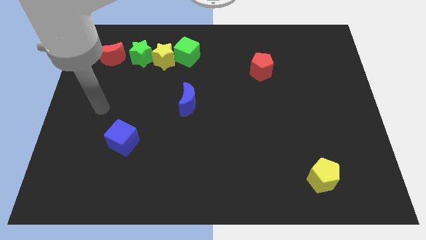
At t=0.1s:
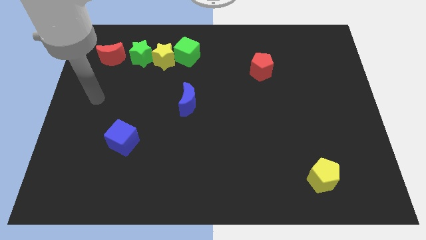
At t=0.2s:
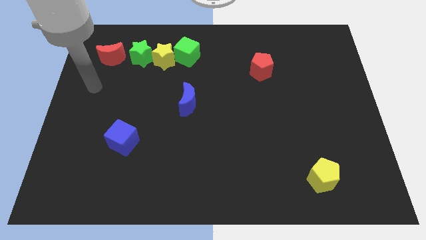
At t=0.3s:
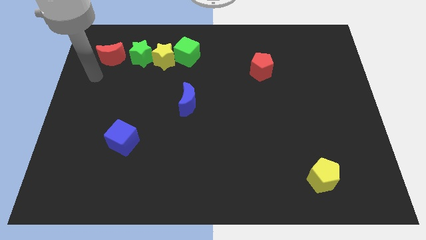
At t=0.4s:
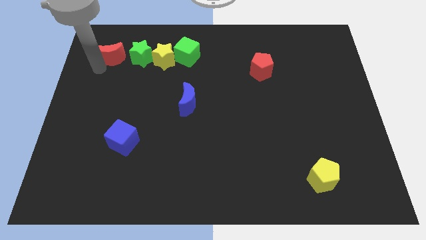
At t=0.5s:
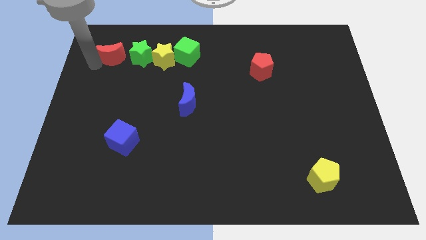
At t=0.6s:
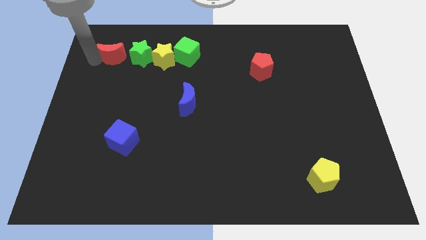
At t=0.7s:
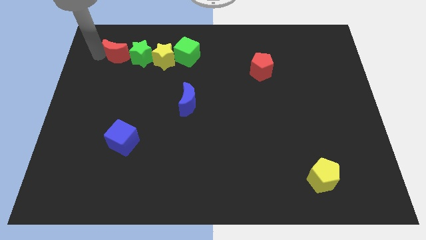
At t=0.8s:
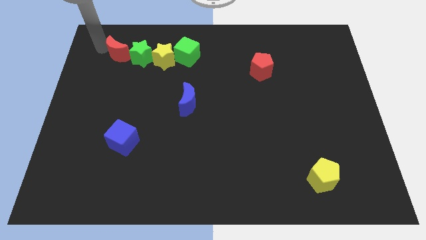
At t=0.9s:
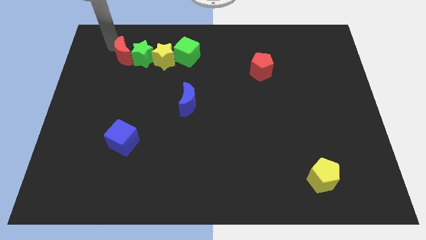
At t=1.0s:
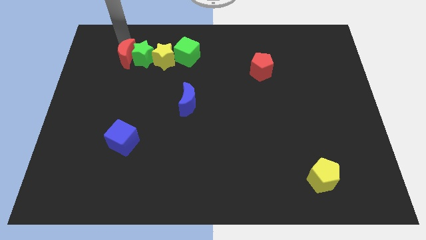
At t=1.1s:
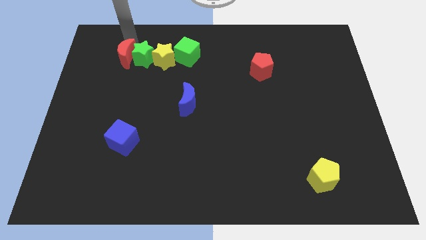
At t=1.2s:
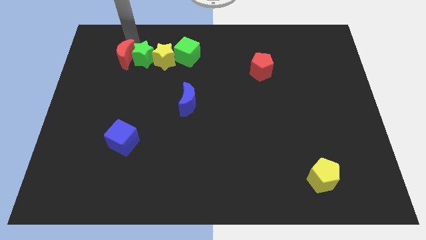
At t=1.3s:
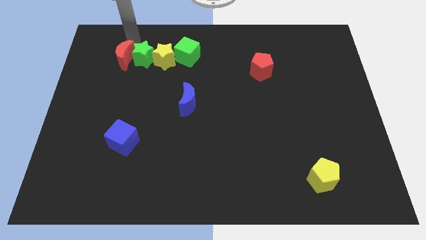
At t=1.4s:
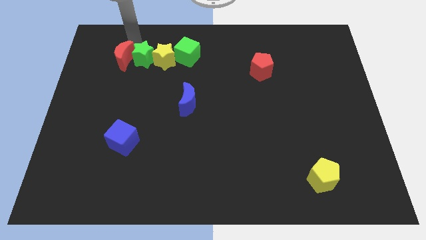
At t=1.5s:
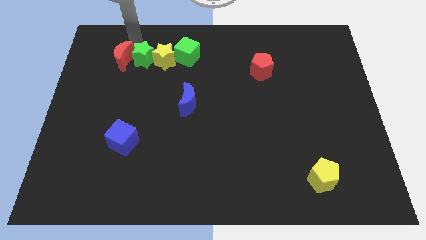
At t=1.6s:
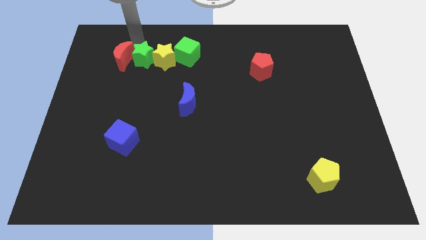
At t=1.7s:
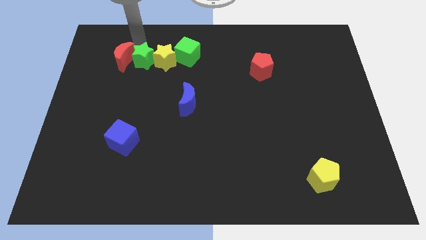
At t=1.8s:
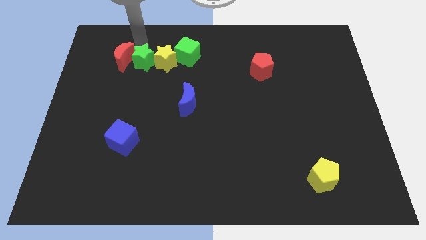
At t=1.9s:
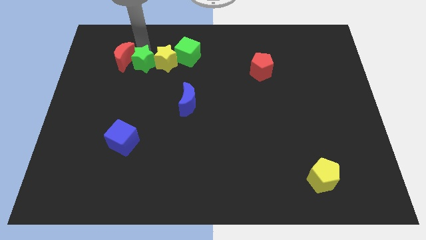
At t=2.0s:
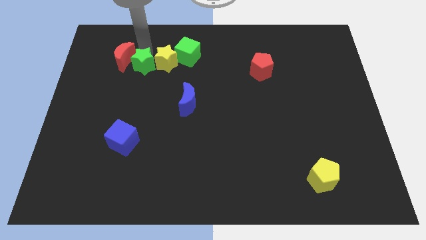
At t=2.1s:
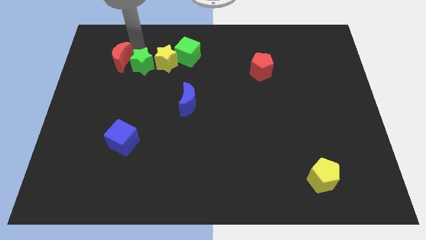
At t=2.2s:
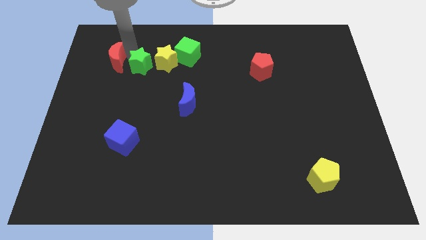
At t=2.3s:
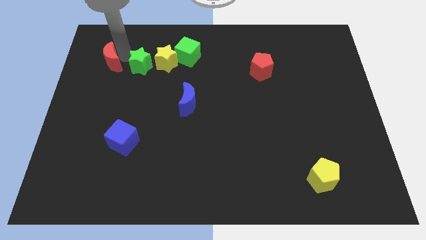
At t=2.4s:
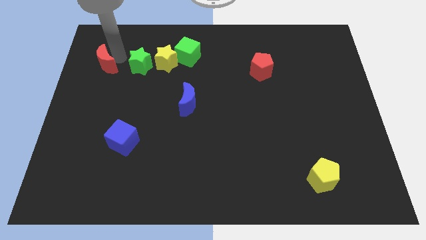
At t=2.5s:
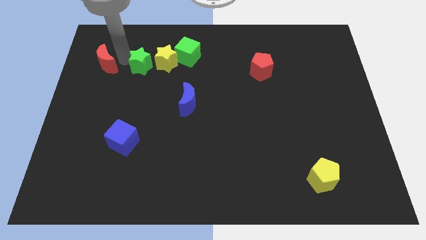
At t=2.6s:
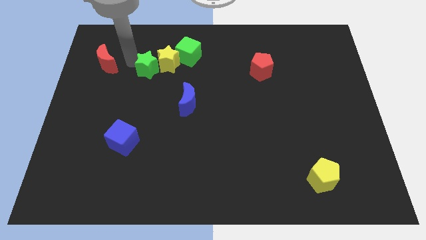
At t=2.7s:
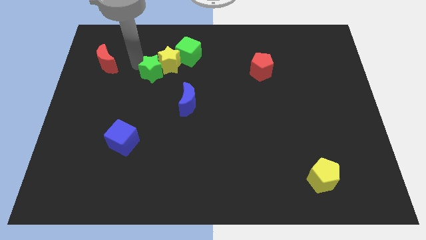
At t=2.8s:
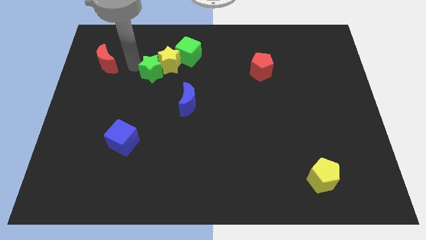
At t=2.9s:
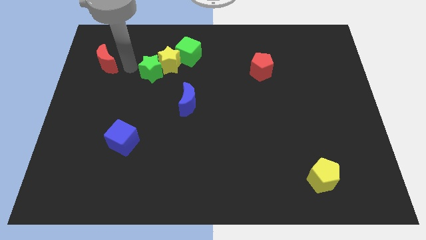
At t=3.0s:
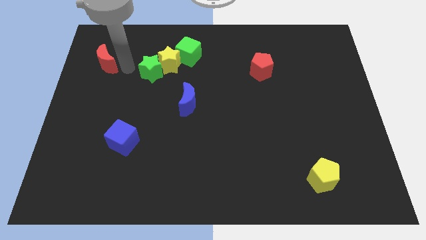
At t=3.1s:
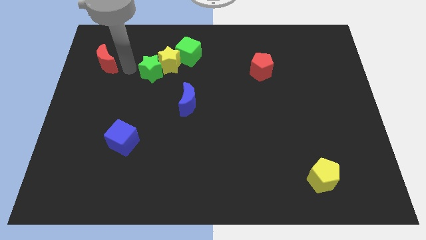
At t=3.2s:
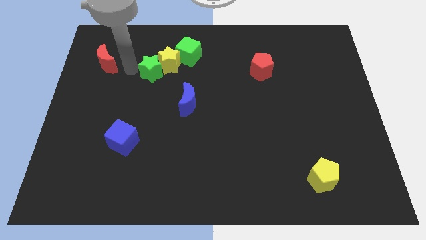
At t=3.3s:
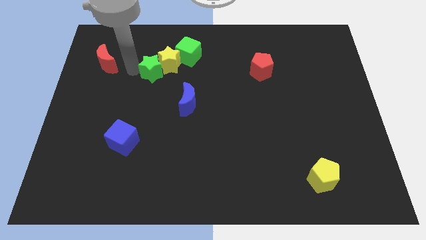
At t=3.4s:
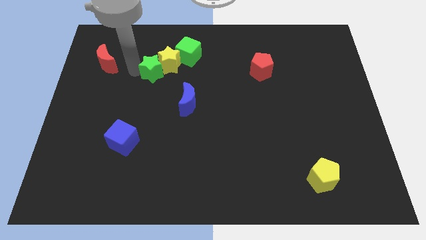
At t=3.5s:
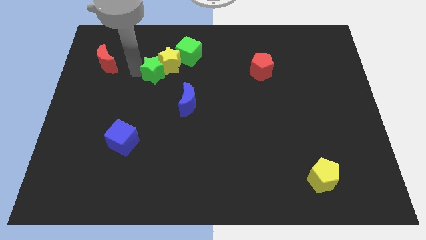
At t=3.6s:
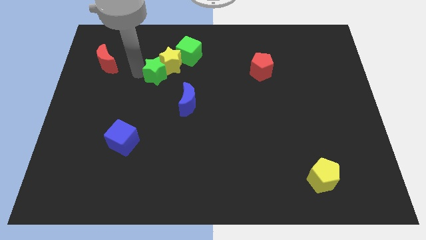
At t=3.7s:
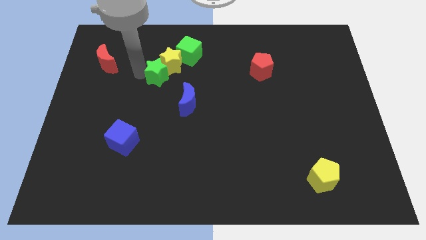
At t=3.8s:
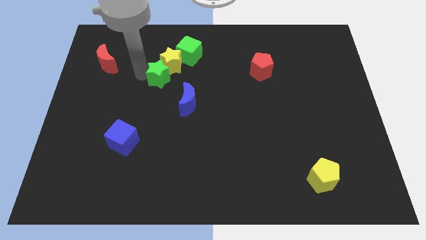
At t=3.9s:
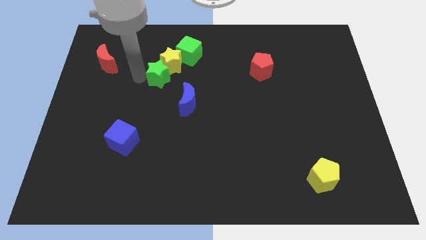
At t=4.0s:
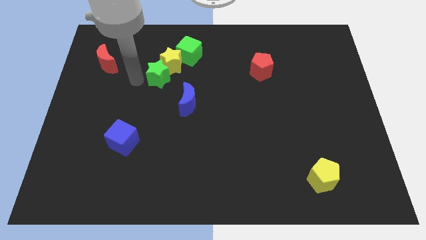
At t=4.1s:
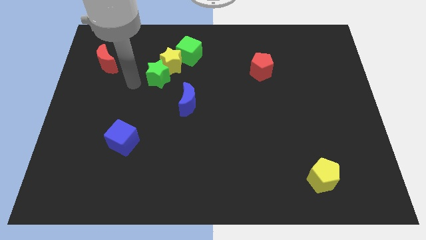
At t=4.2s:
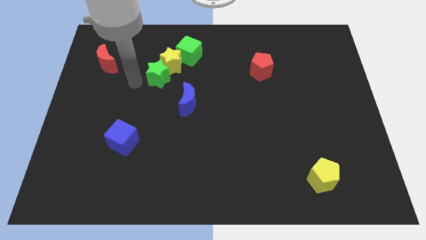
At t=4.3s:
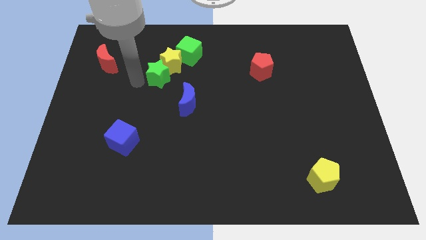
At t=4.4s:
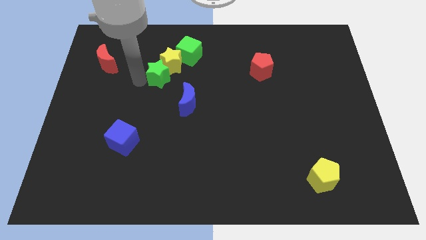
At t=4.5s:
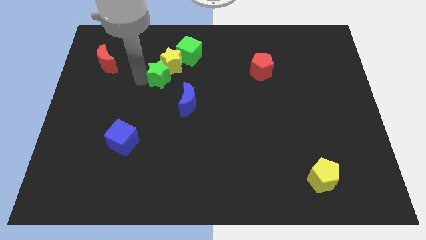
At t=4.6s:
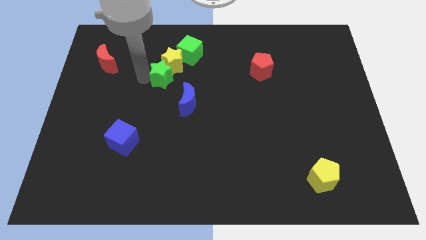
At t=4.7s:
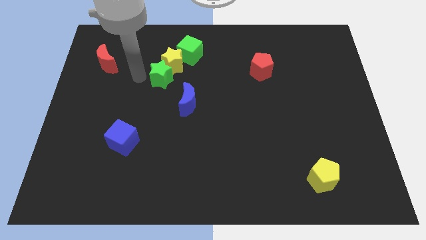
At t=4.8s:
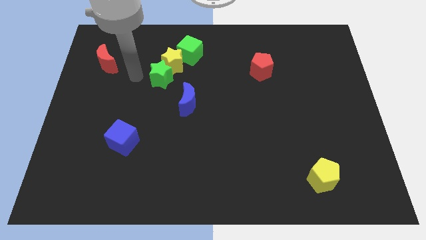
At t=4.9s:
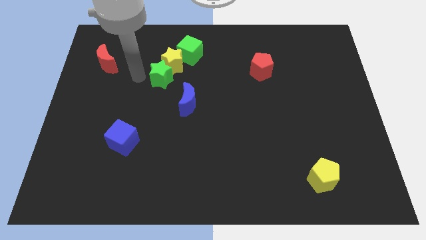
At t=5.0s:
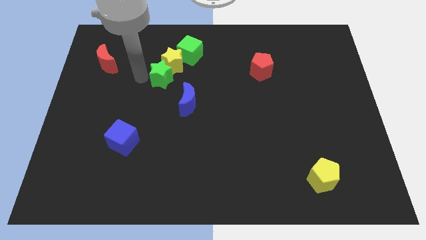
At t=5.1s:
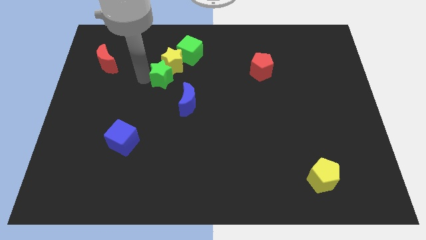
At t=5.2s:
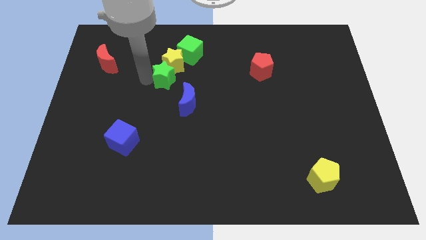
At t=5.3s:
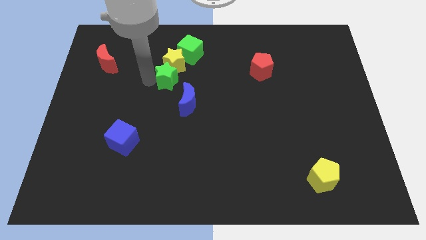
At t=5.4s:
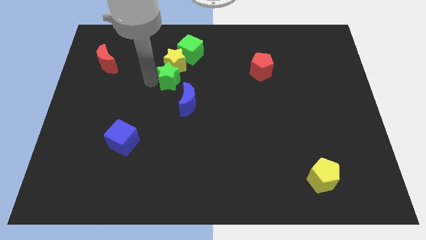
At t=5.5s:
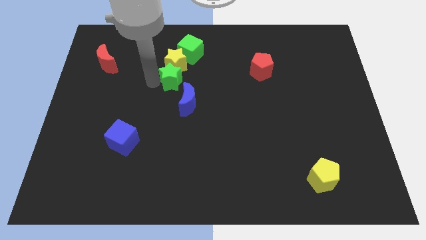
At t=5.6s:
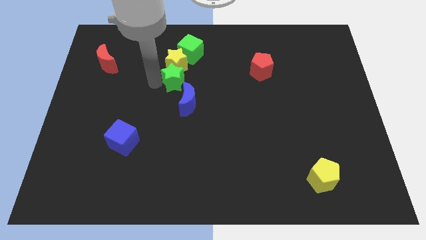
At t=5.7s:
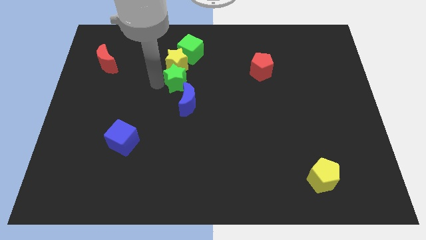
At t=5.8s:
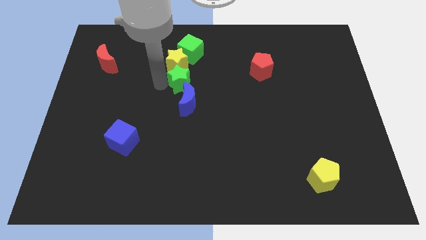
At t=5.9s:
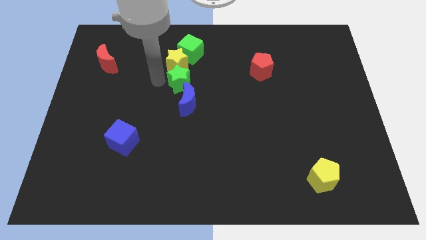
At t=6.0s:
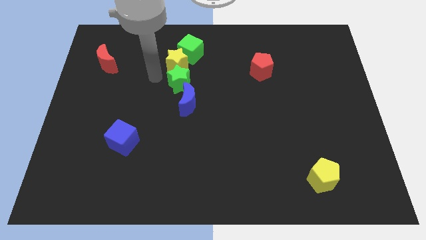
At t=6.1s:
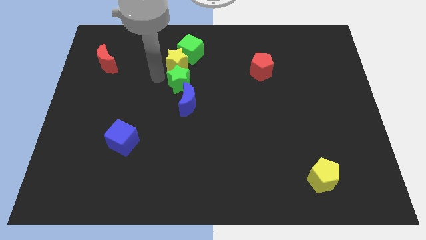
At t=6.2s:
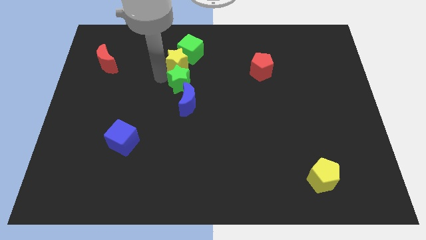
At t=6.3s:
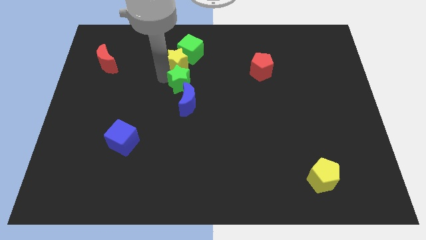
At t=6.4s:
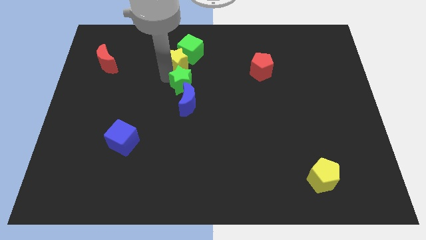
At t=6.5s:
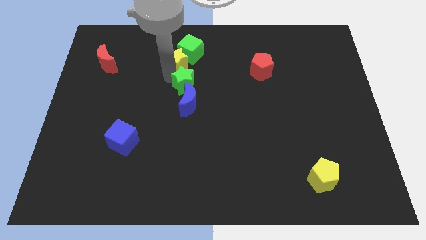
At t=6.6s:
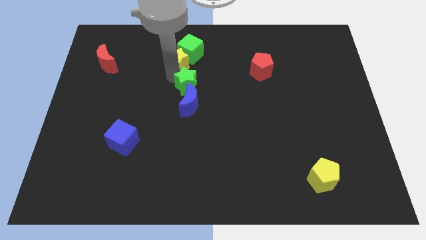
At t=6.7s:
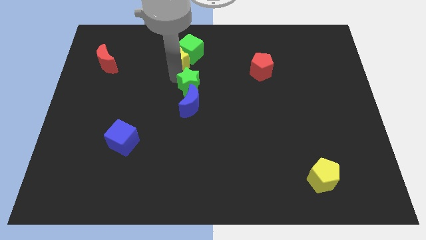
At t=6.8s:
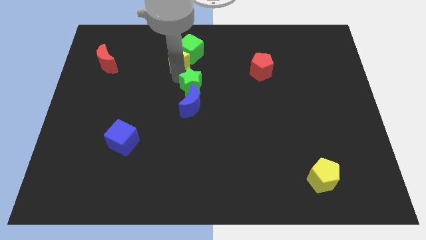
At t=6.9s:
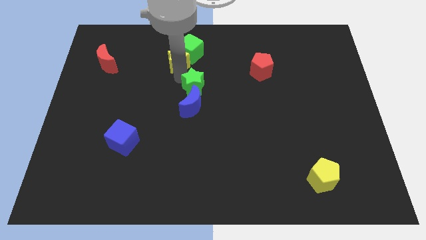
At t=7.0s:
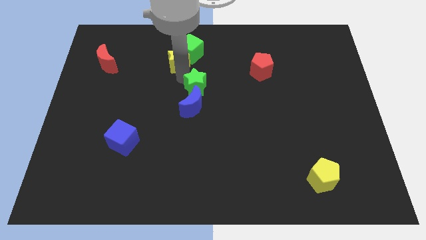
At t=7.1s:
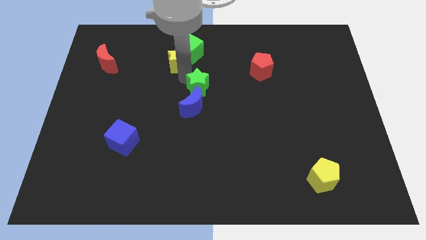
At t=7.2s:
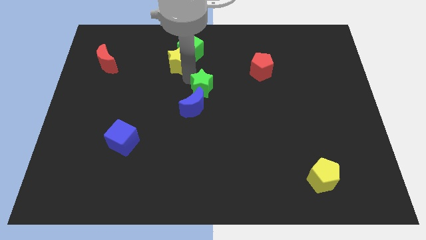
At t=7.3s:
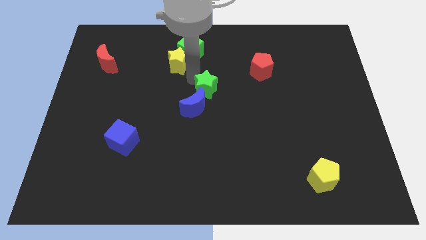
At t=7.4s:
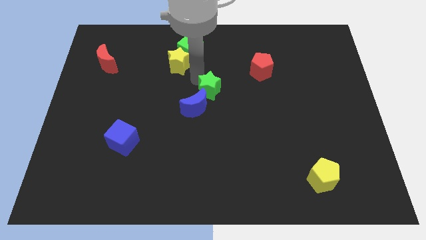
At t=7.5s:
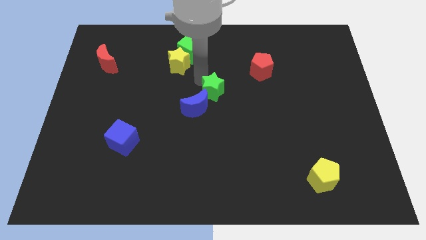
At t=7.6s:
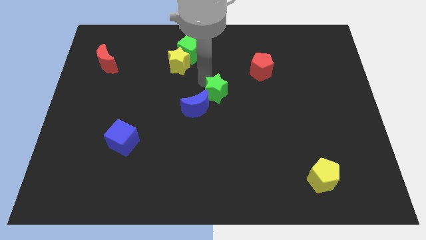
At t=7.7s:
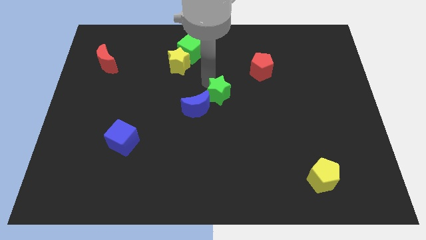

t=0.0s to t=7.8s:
move the green star right of the blue moon

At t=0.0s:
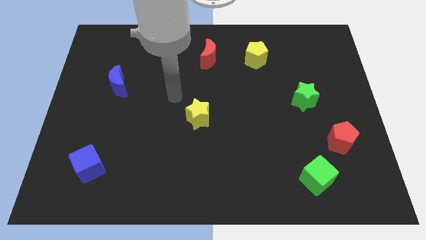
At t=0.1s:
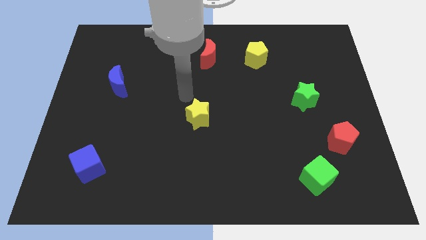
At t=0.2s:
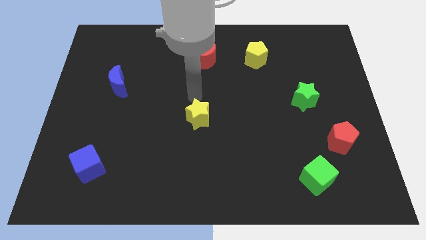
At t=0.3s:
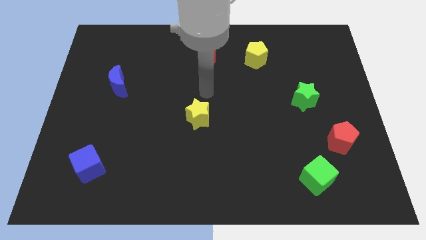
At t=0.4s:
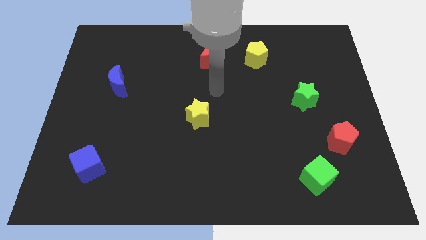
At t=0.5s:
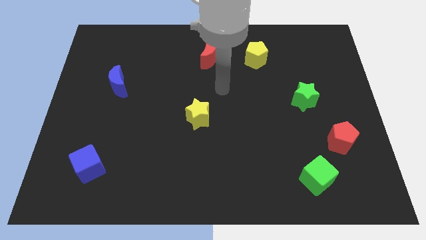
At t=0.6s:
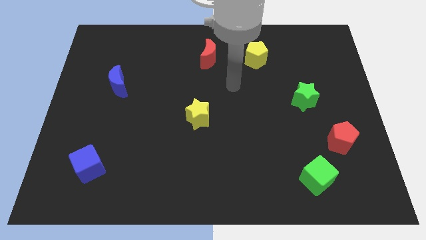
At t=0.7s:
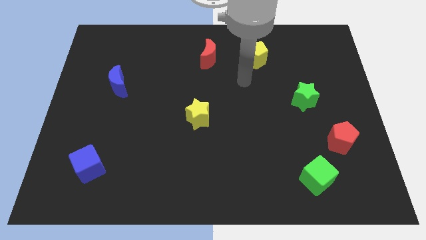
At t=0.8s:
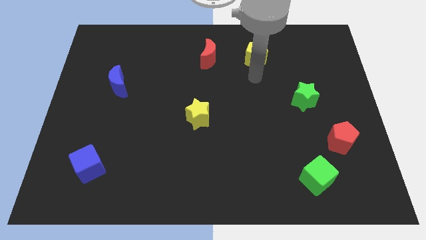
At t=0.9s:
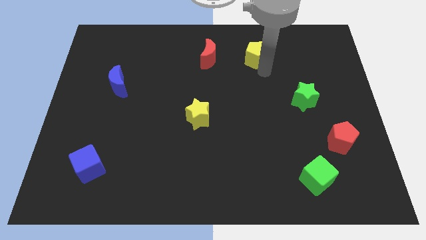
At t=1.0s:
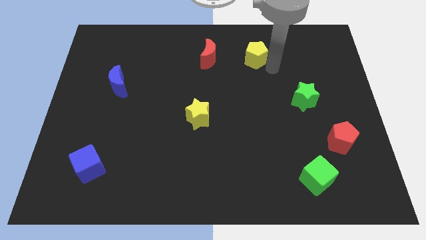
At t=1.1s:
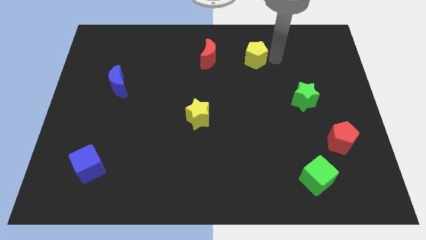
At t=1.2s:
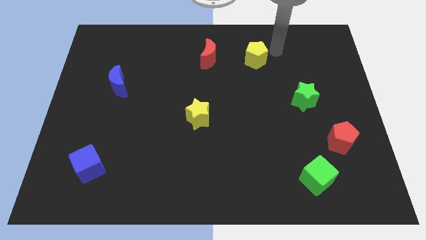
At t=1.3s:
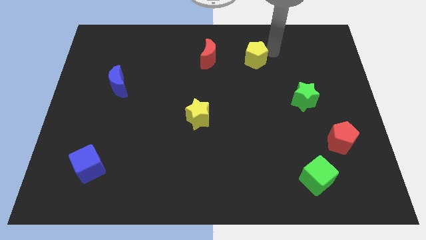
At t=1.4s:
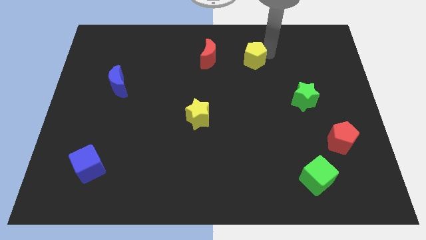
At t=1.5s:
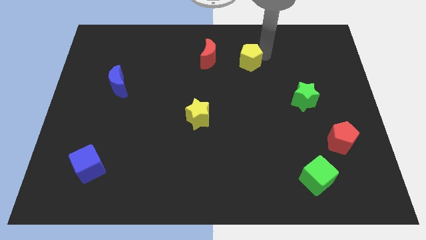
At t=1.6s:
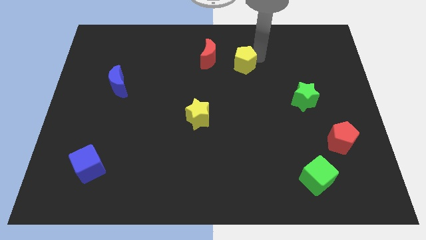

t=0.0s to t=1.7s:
move the yellow pentagon to the bottom right of the red moon
